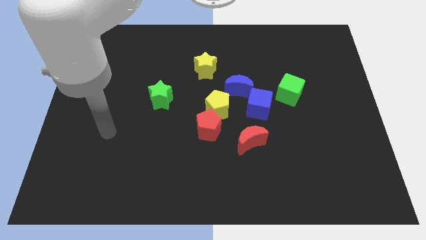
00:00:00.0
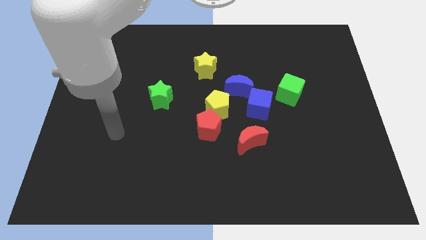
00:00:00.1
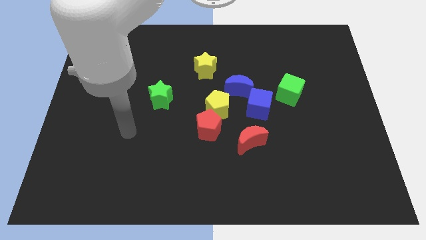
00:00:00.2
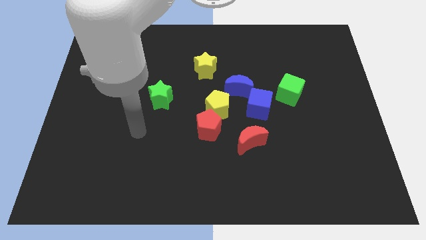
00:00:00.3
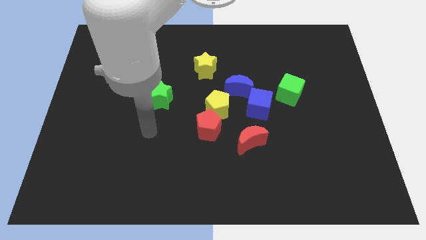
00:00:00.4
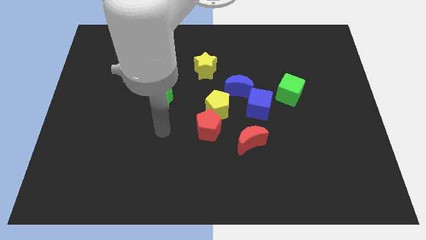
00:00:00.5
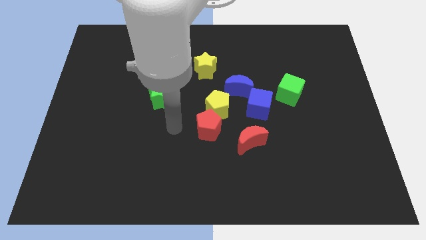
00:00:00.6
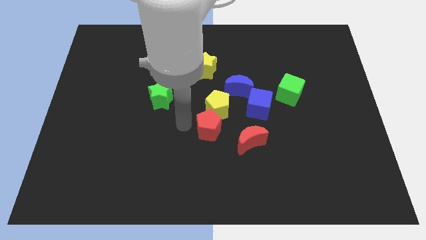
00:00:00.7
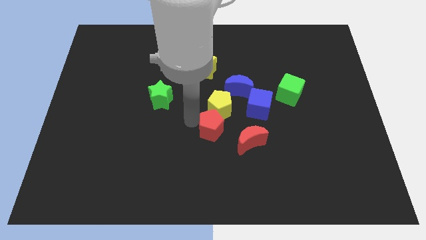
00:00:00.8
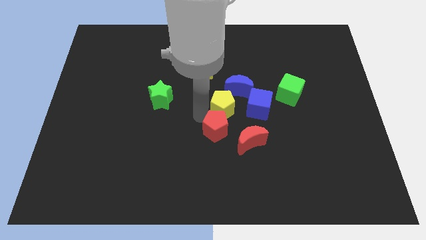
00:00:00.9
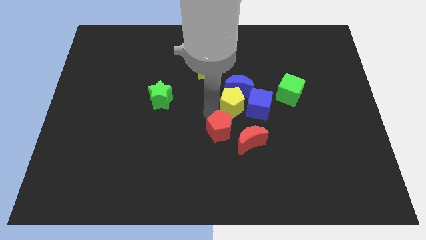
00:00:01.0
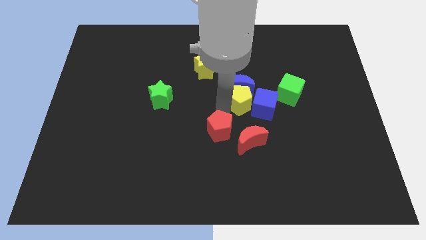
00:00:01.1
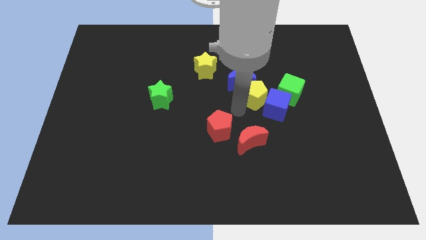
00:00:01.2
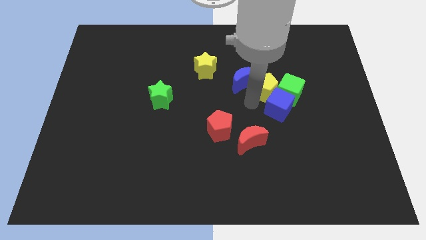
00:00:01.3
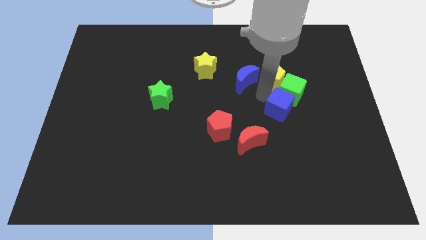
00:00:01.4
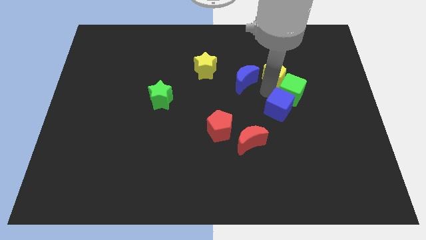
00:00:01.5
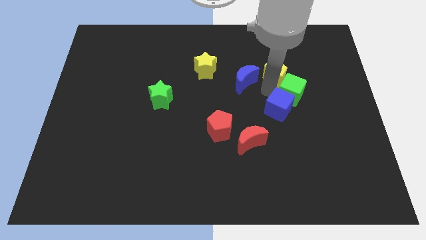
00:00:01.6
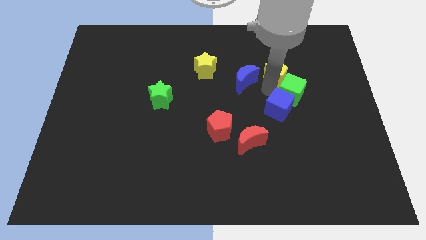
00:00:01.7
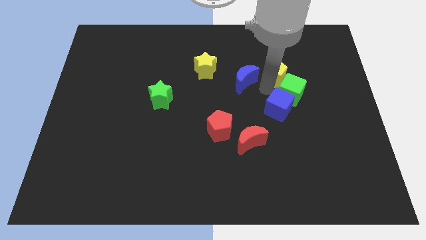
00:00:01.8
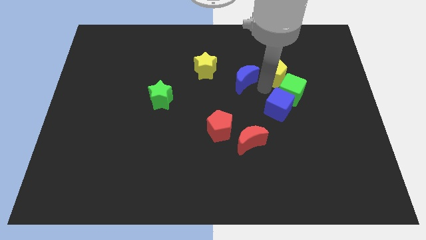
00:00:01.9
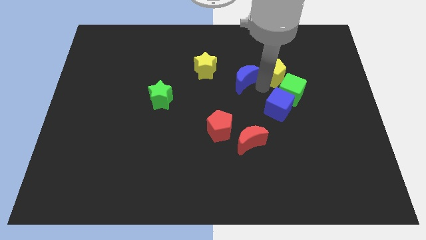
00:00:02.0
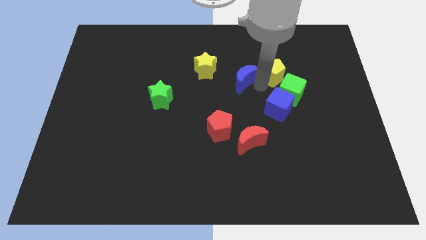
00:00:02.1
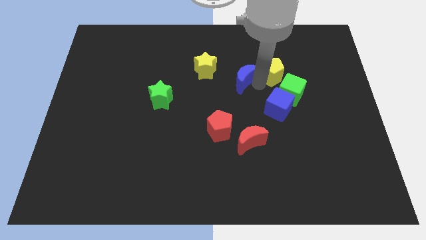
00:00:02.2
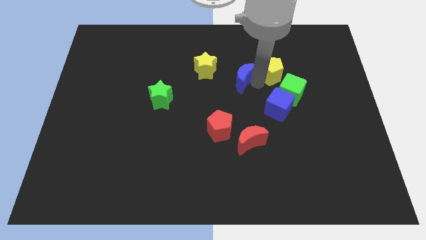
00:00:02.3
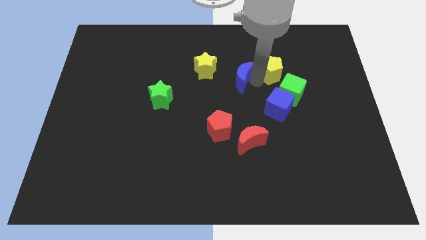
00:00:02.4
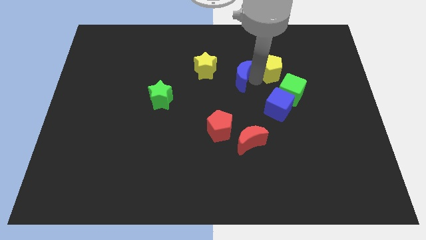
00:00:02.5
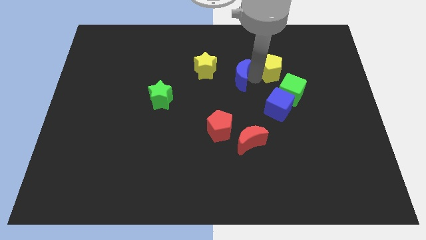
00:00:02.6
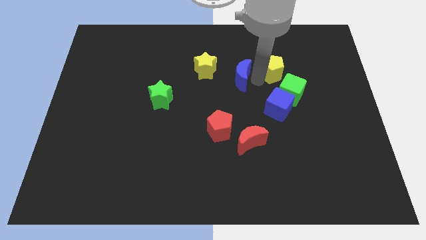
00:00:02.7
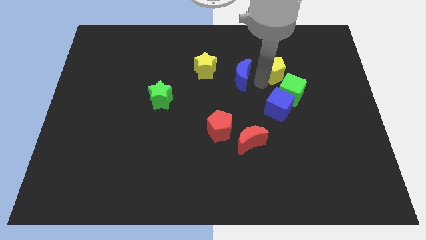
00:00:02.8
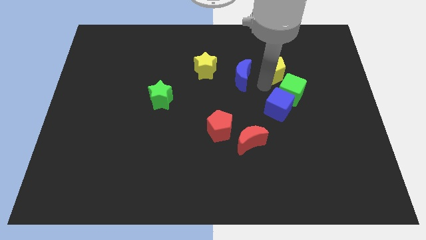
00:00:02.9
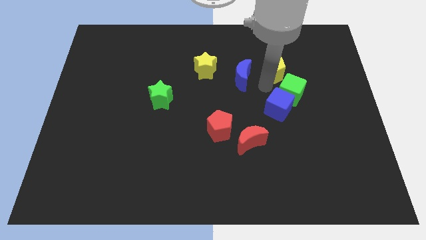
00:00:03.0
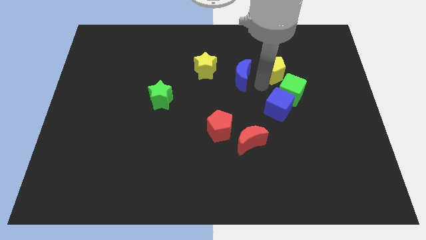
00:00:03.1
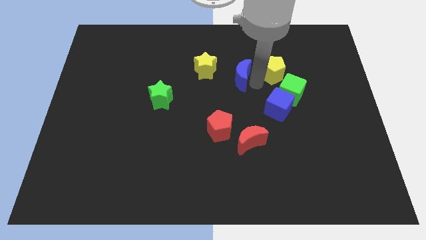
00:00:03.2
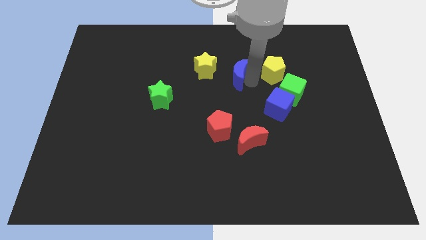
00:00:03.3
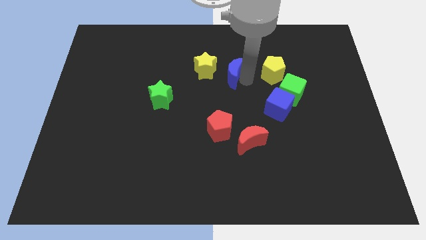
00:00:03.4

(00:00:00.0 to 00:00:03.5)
move the blue moon away from the blue cube and yellow pentagon

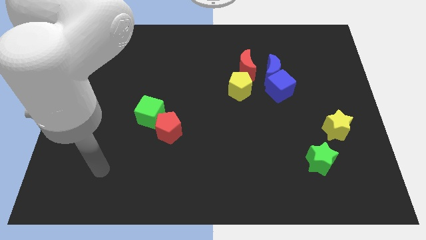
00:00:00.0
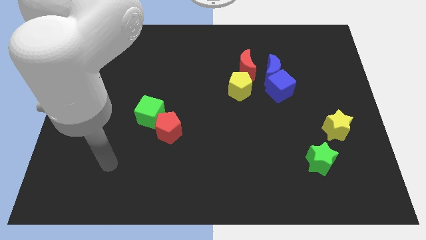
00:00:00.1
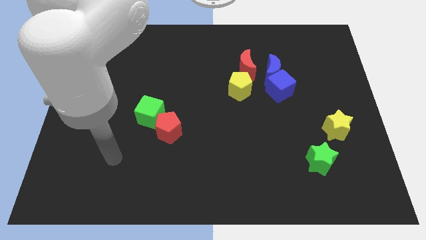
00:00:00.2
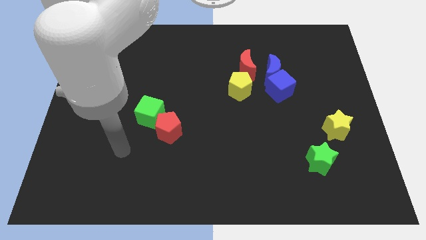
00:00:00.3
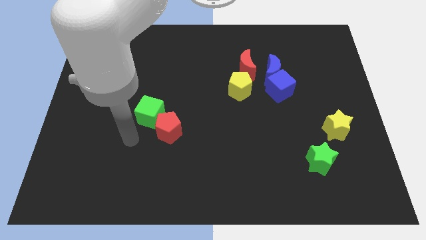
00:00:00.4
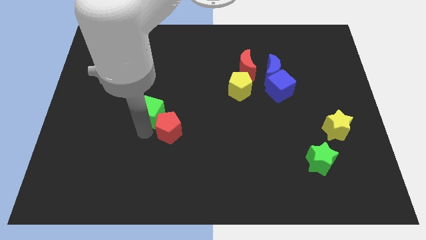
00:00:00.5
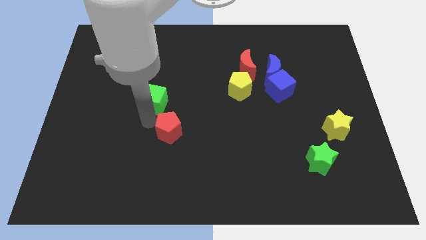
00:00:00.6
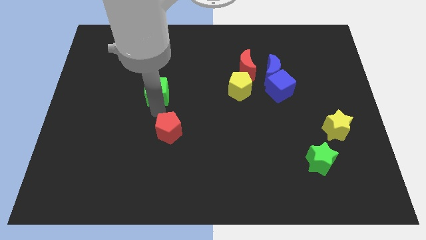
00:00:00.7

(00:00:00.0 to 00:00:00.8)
pull the red pentagon apart from the green cube

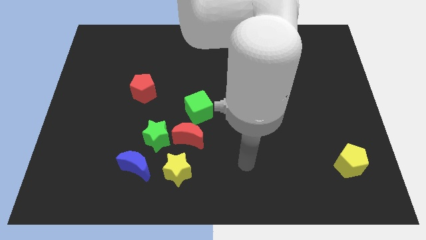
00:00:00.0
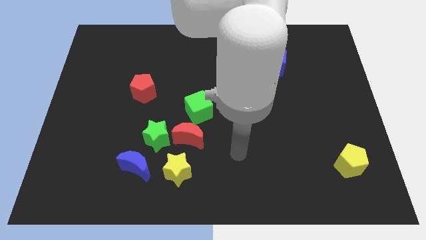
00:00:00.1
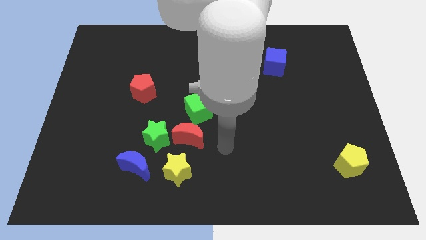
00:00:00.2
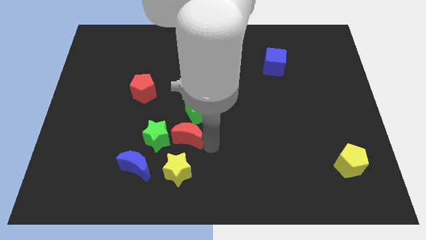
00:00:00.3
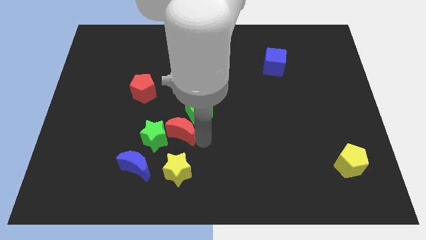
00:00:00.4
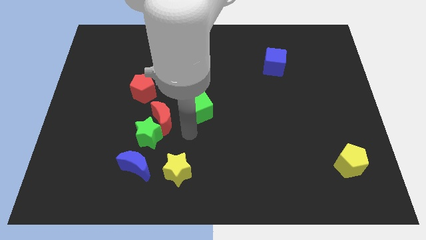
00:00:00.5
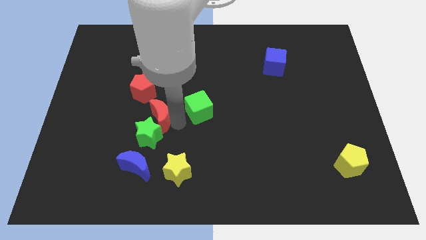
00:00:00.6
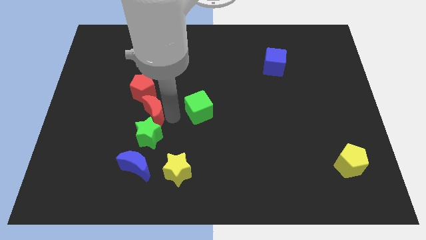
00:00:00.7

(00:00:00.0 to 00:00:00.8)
move the green cube away from the red moon

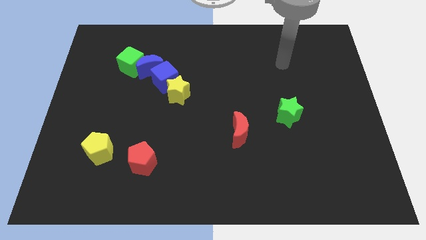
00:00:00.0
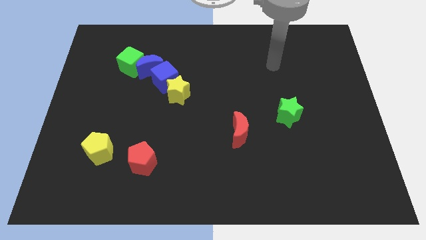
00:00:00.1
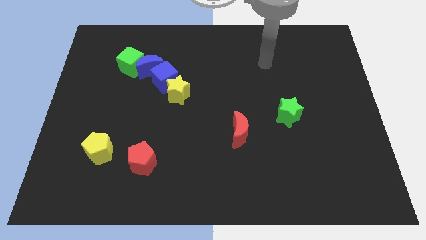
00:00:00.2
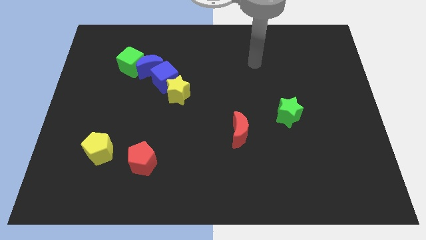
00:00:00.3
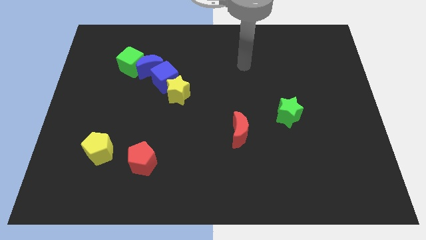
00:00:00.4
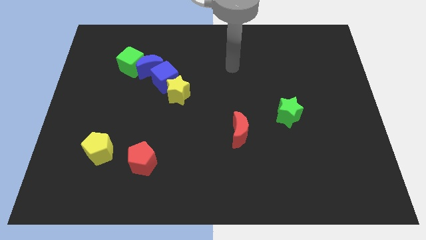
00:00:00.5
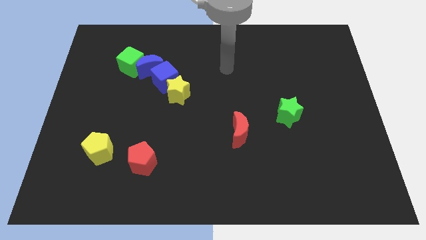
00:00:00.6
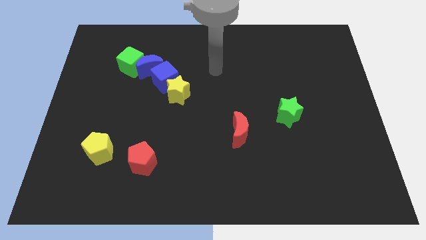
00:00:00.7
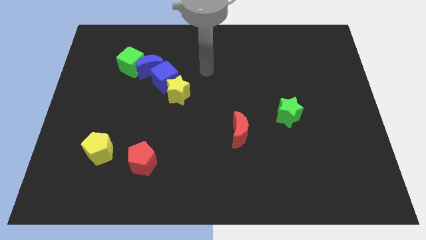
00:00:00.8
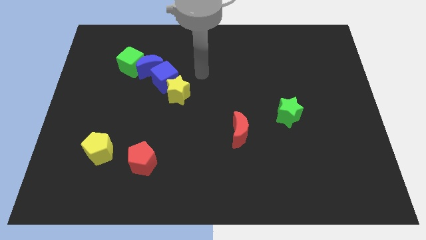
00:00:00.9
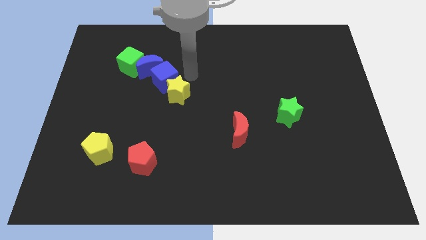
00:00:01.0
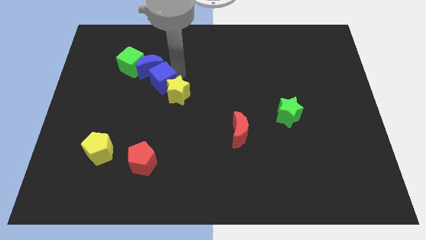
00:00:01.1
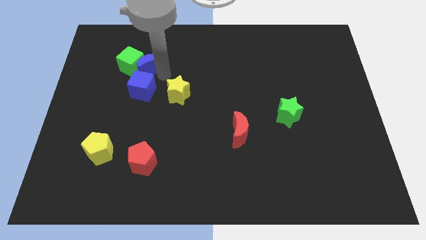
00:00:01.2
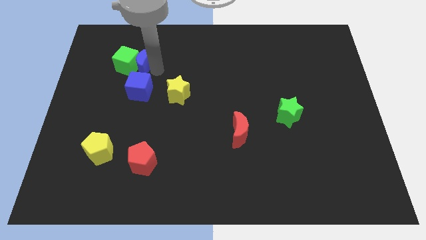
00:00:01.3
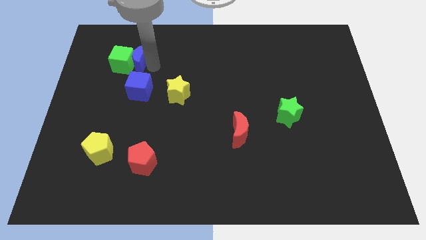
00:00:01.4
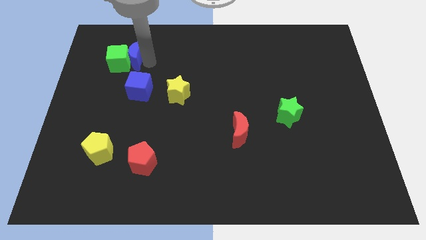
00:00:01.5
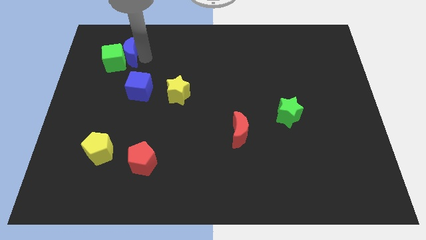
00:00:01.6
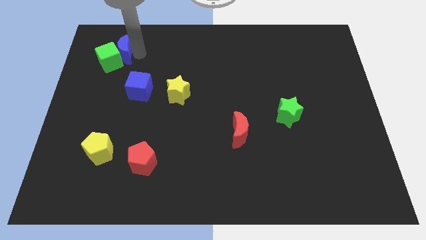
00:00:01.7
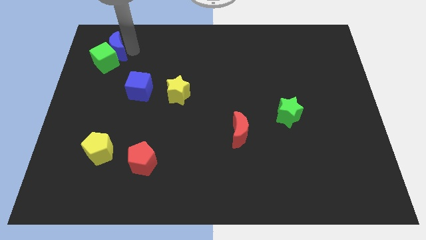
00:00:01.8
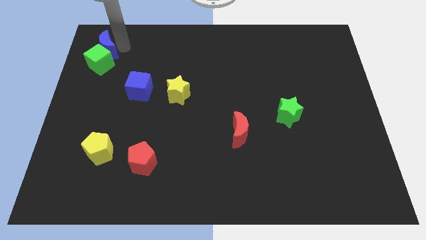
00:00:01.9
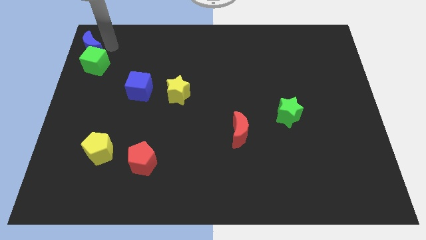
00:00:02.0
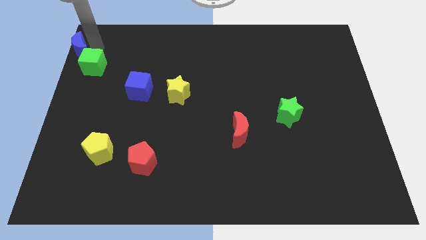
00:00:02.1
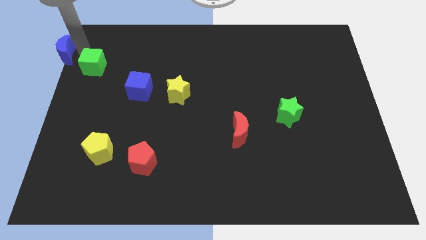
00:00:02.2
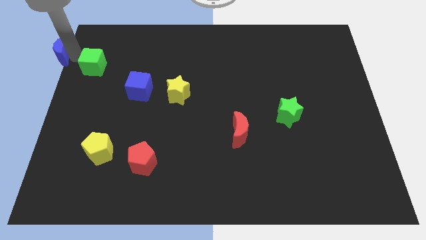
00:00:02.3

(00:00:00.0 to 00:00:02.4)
separate the green cube from the blue moon

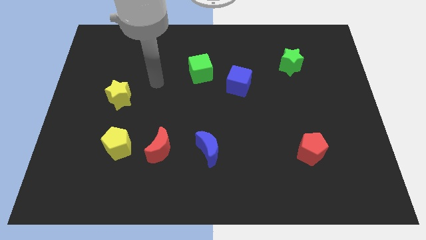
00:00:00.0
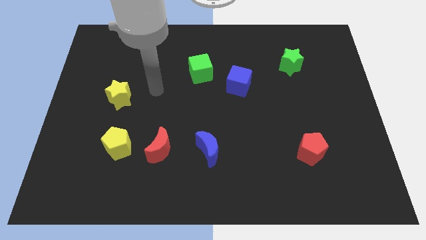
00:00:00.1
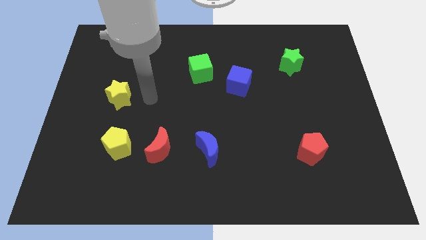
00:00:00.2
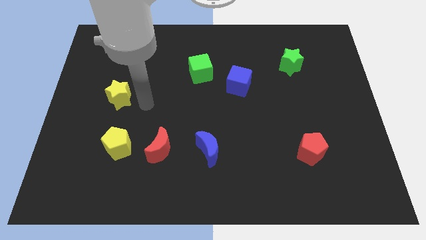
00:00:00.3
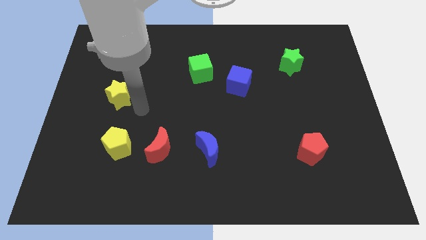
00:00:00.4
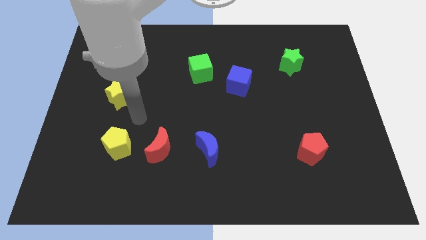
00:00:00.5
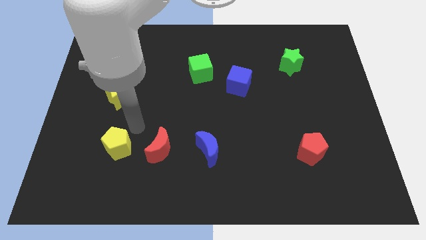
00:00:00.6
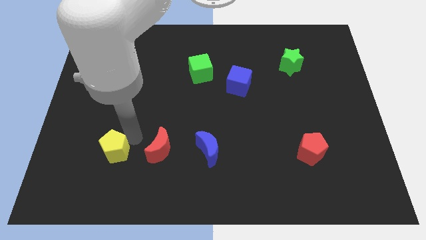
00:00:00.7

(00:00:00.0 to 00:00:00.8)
separate the red moon from the yellow pentagon

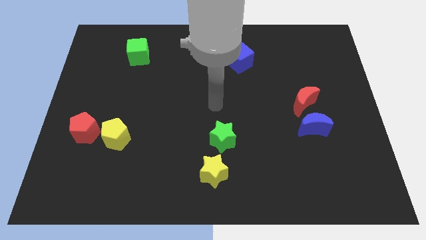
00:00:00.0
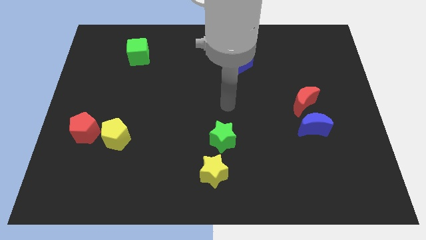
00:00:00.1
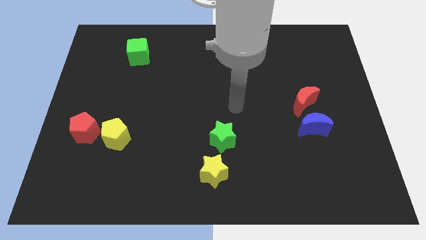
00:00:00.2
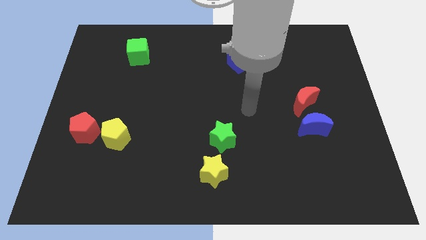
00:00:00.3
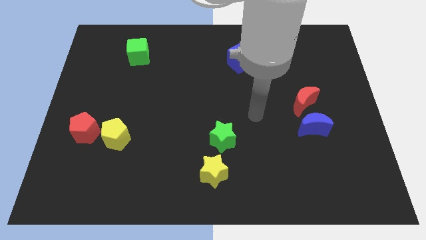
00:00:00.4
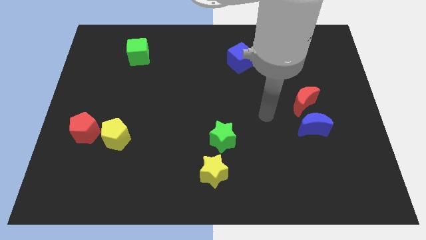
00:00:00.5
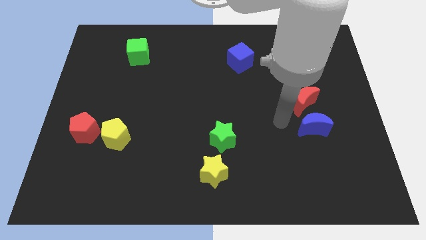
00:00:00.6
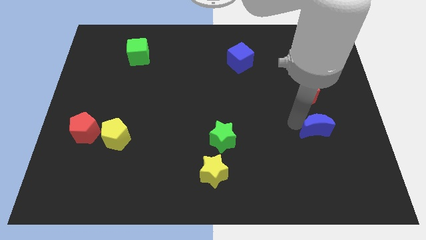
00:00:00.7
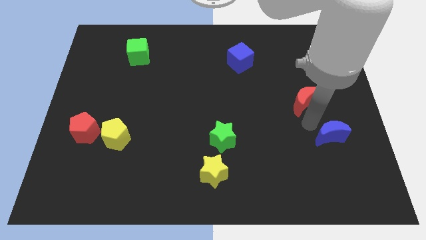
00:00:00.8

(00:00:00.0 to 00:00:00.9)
move the red moon away from the blue moon
